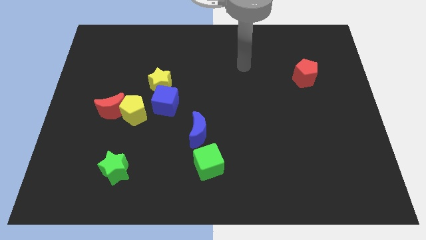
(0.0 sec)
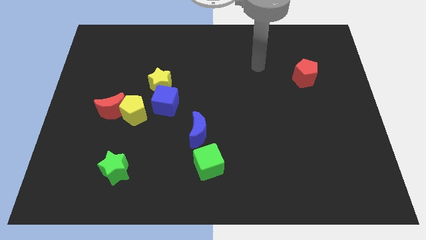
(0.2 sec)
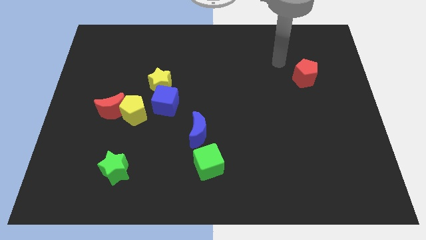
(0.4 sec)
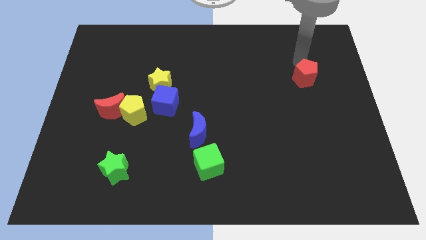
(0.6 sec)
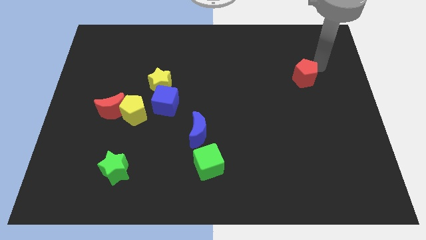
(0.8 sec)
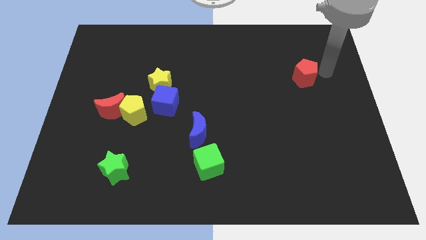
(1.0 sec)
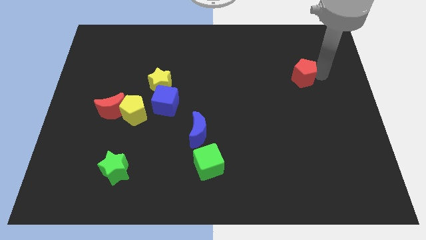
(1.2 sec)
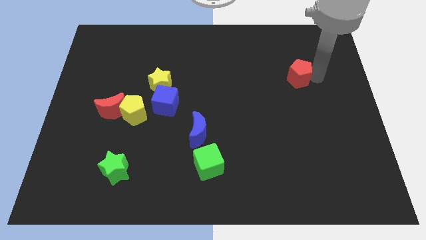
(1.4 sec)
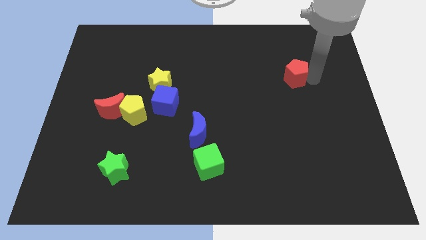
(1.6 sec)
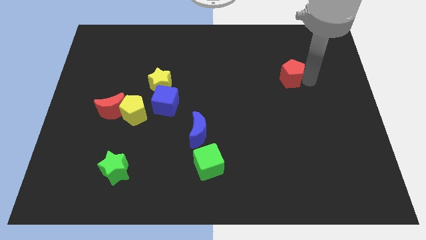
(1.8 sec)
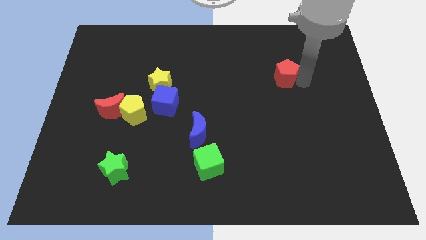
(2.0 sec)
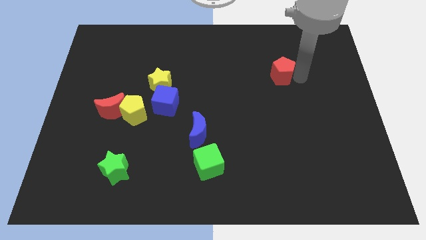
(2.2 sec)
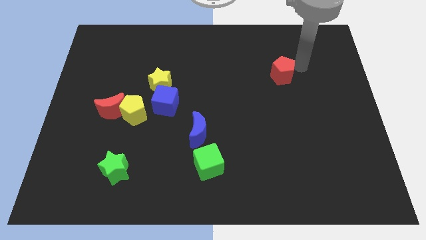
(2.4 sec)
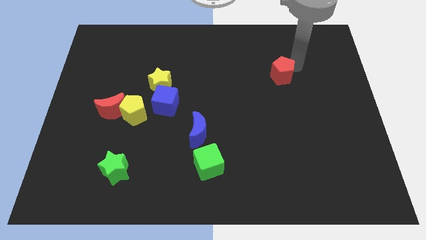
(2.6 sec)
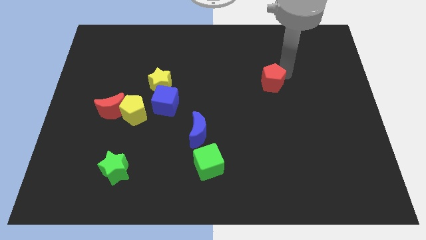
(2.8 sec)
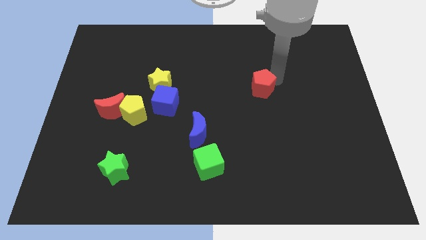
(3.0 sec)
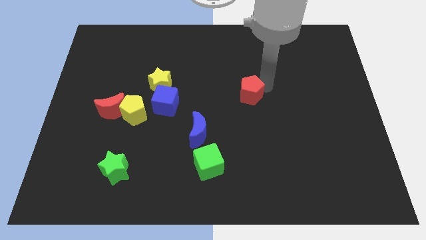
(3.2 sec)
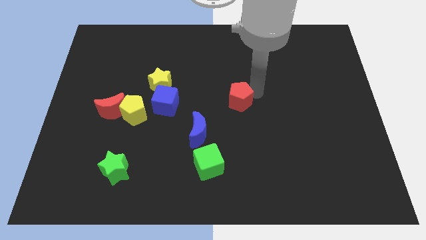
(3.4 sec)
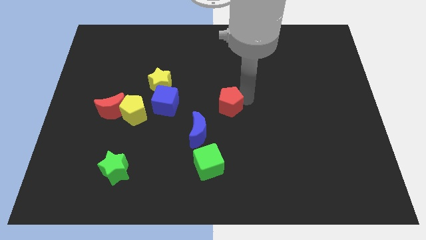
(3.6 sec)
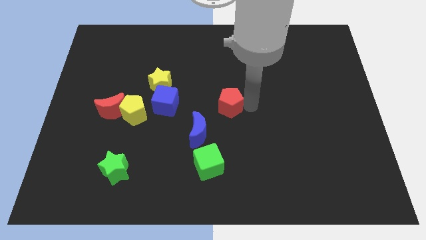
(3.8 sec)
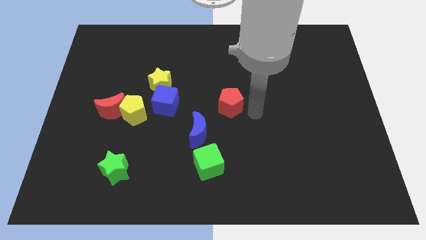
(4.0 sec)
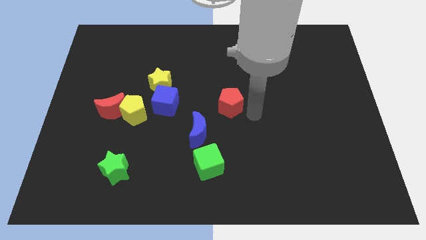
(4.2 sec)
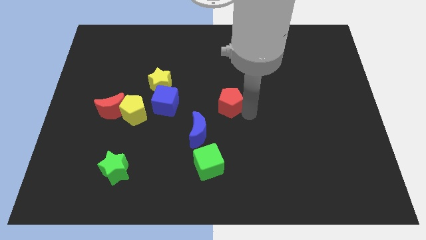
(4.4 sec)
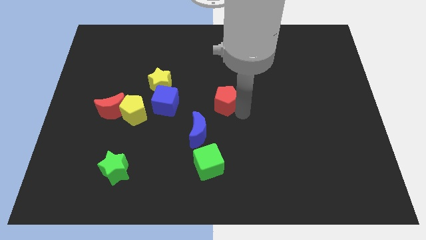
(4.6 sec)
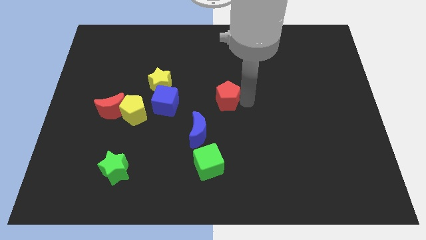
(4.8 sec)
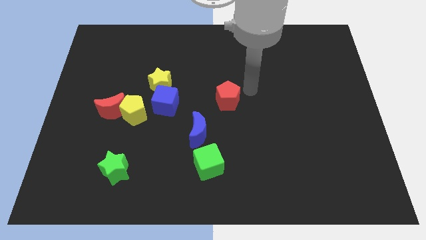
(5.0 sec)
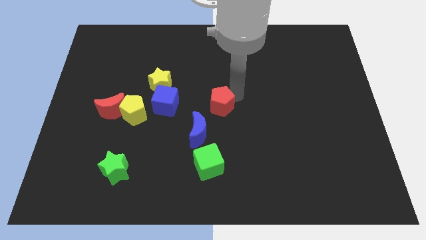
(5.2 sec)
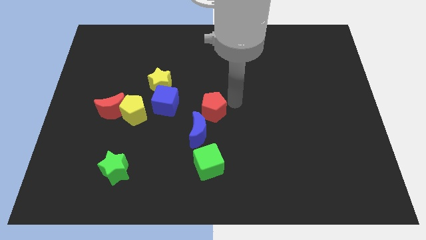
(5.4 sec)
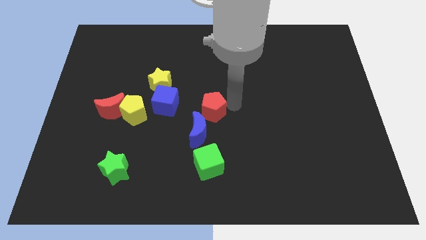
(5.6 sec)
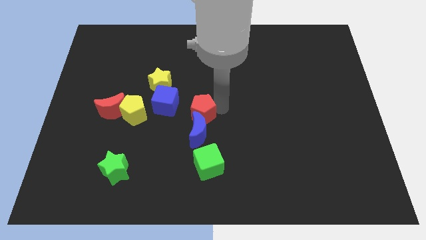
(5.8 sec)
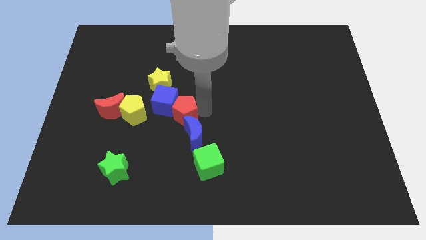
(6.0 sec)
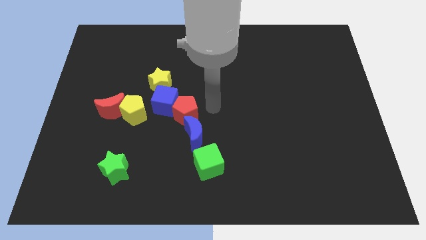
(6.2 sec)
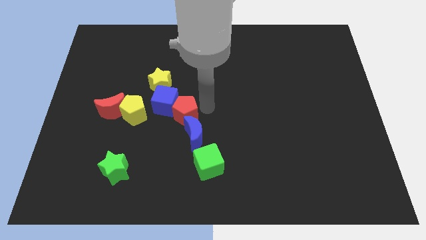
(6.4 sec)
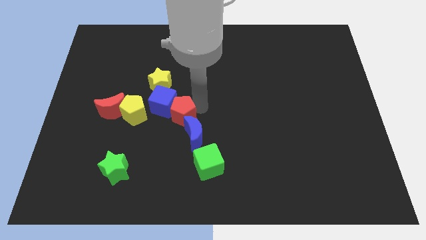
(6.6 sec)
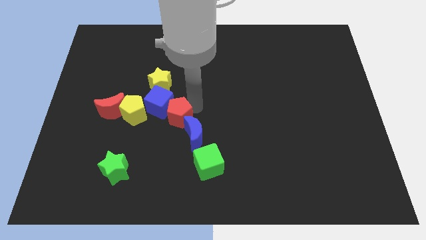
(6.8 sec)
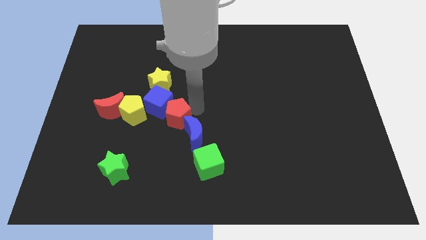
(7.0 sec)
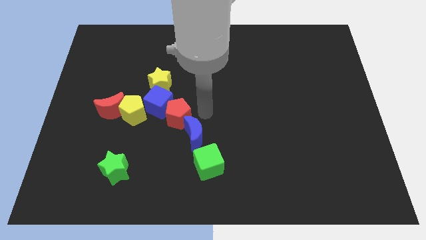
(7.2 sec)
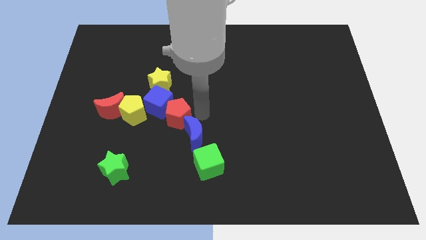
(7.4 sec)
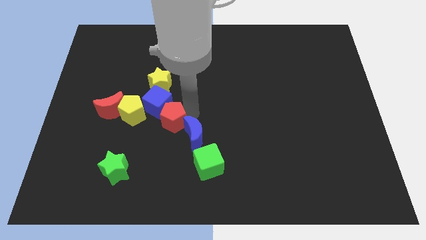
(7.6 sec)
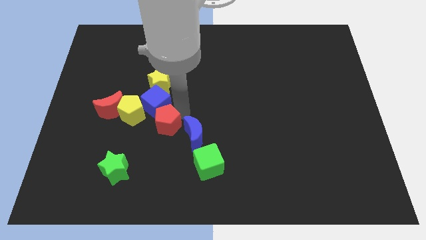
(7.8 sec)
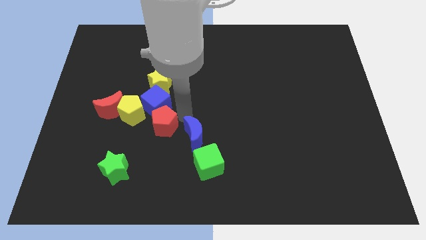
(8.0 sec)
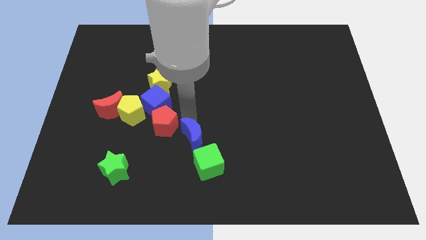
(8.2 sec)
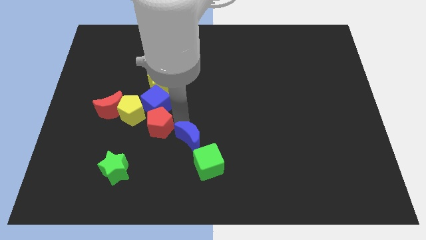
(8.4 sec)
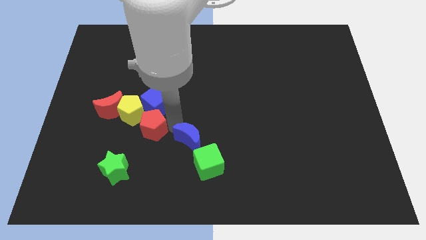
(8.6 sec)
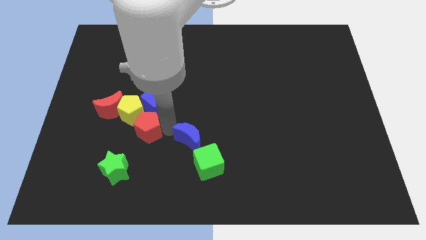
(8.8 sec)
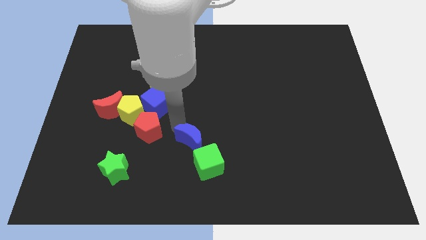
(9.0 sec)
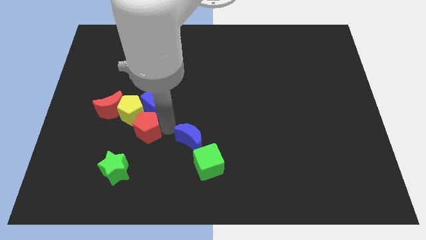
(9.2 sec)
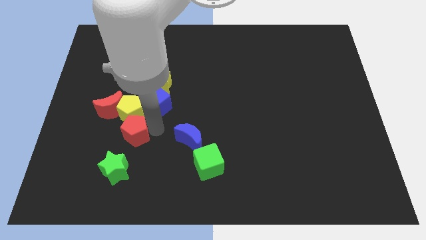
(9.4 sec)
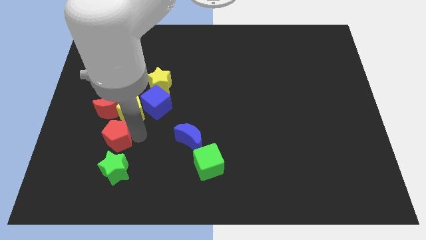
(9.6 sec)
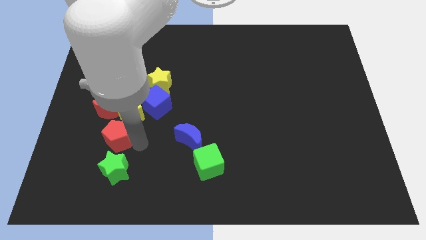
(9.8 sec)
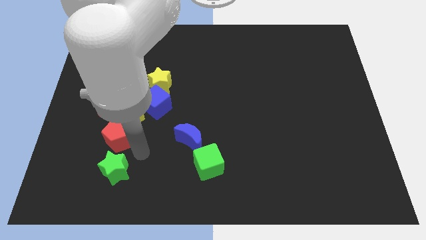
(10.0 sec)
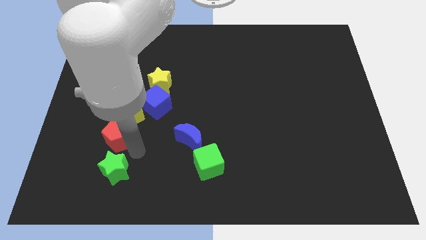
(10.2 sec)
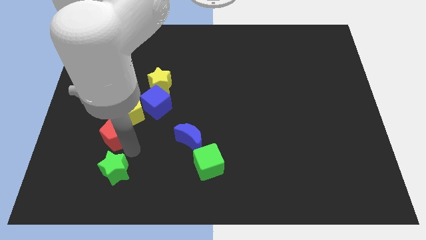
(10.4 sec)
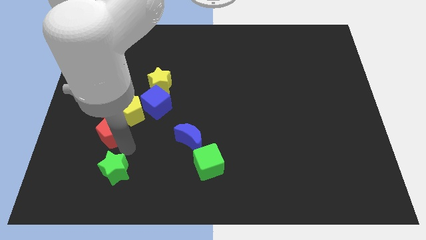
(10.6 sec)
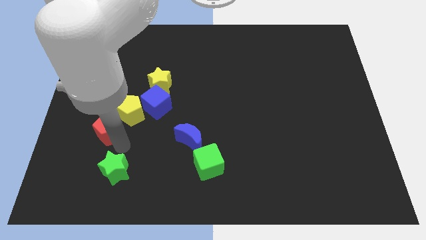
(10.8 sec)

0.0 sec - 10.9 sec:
move the red pentagon to the bottom left side of the red moon

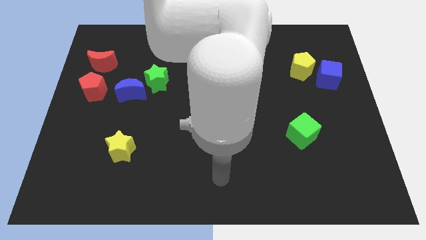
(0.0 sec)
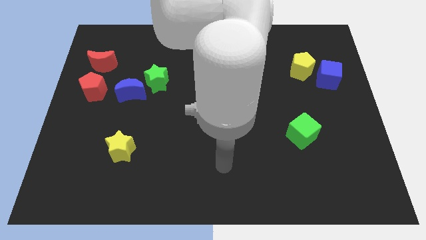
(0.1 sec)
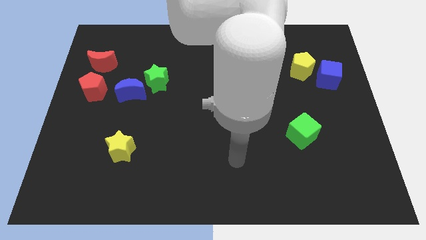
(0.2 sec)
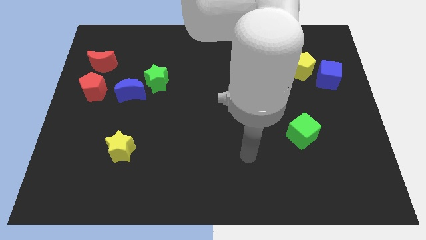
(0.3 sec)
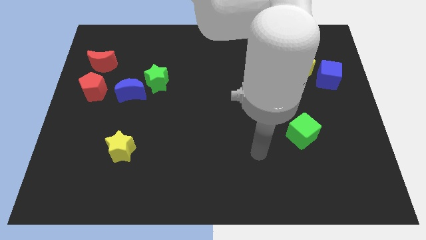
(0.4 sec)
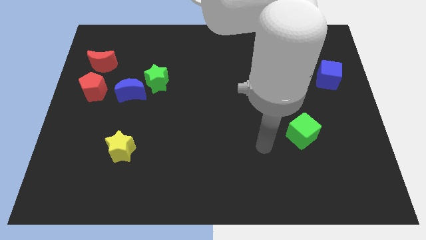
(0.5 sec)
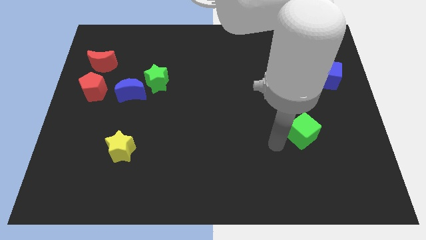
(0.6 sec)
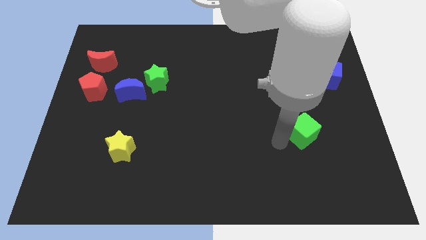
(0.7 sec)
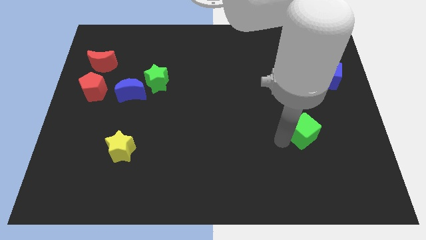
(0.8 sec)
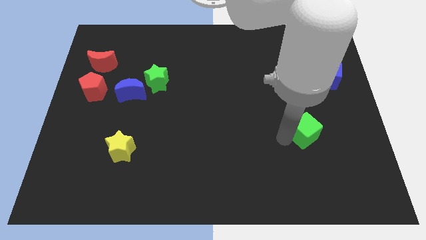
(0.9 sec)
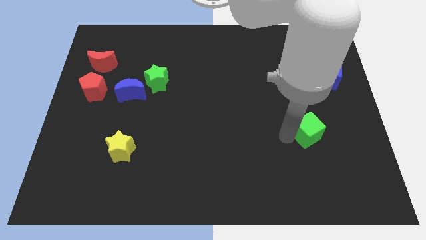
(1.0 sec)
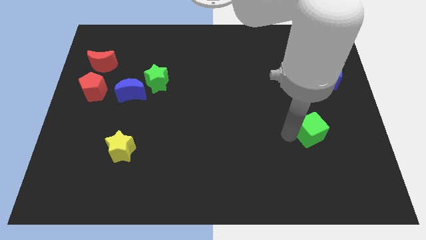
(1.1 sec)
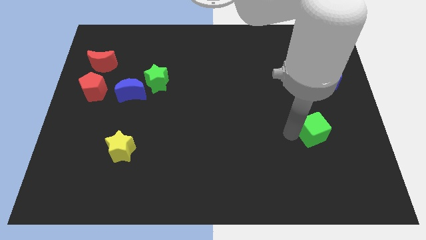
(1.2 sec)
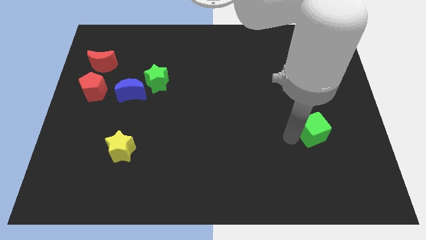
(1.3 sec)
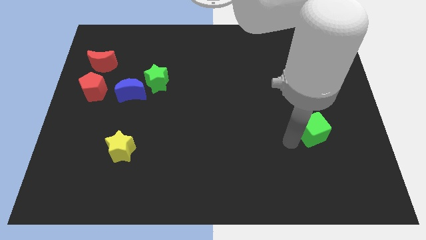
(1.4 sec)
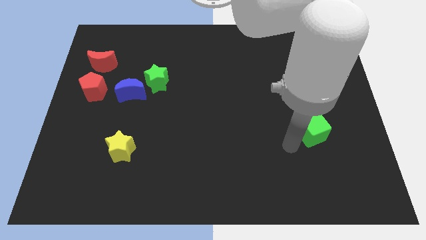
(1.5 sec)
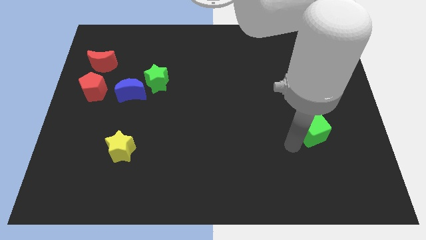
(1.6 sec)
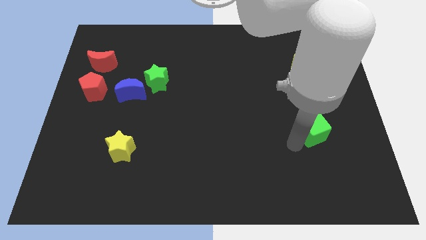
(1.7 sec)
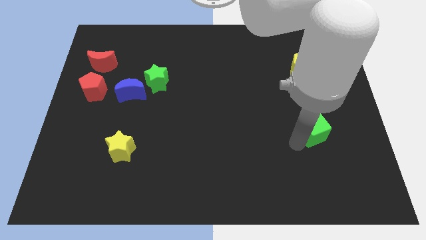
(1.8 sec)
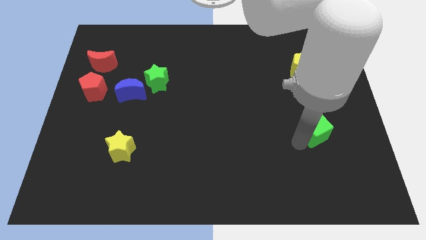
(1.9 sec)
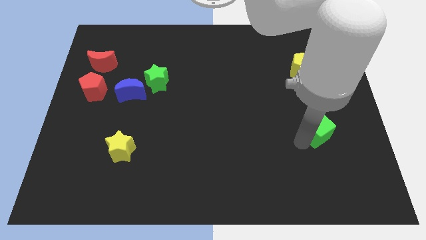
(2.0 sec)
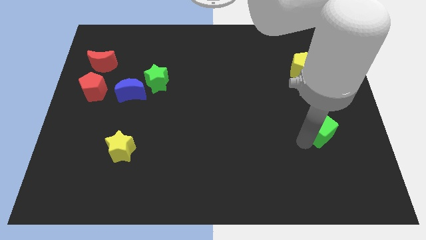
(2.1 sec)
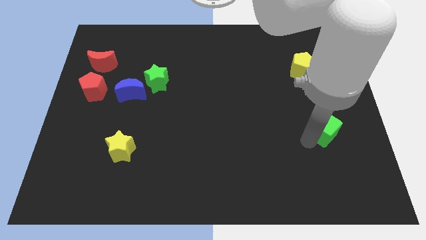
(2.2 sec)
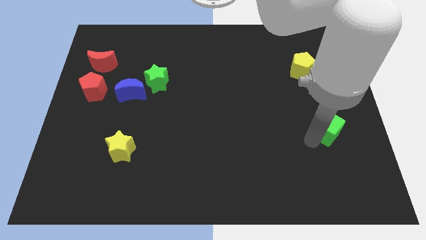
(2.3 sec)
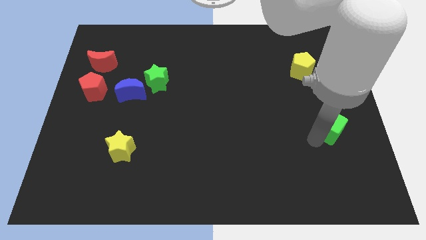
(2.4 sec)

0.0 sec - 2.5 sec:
put the green cube to the bottom side of the blue cube
